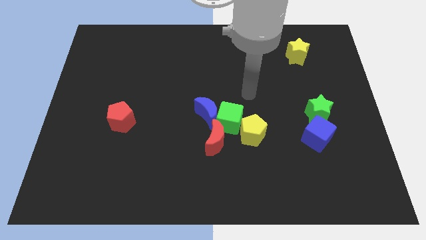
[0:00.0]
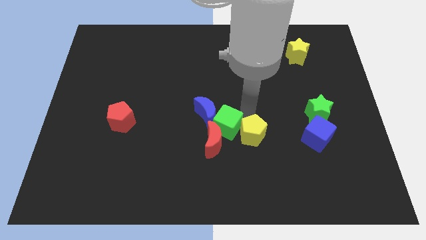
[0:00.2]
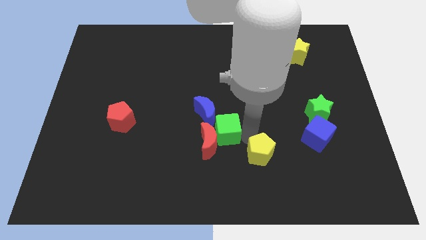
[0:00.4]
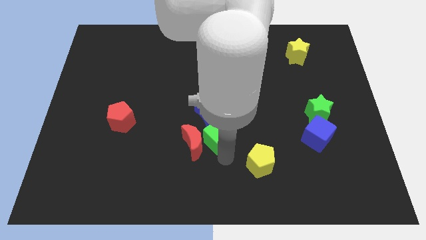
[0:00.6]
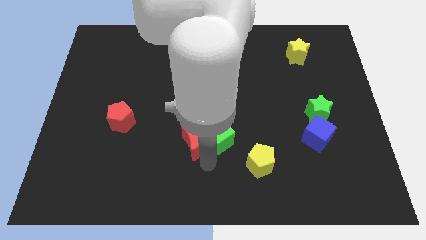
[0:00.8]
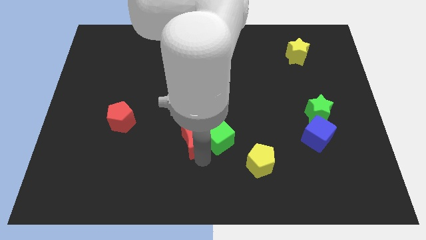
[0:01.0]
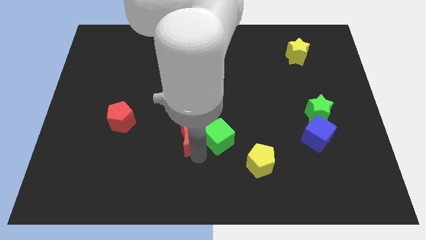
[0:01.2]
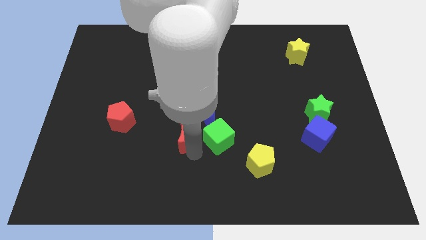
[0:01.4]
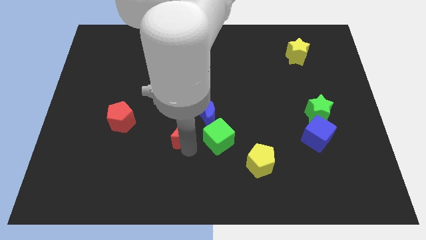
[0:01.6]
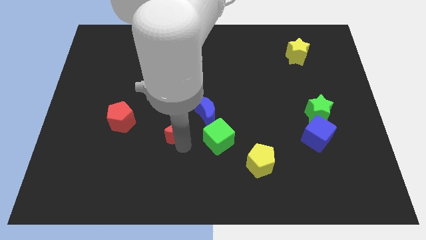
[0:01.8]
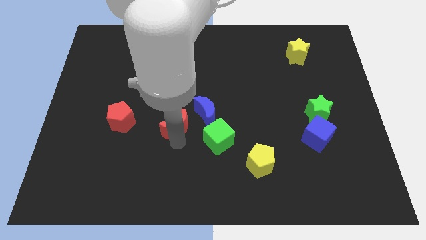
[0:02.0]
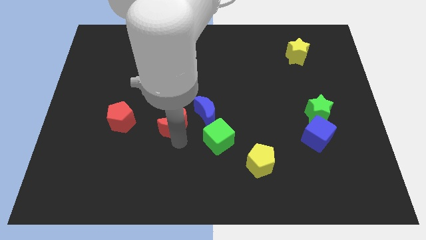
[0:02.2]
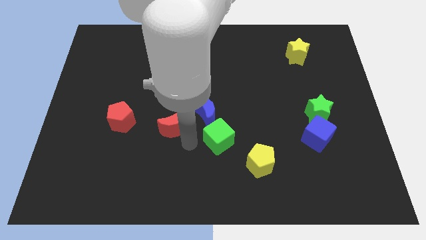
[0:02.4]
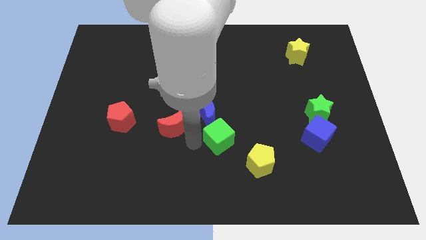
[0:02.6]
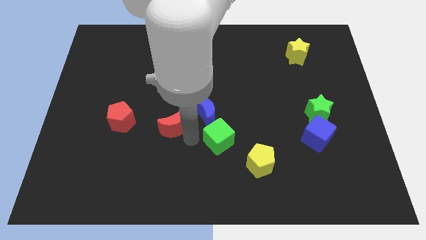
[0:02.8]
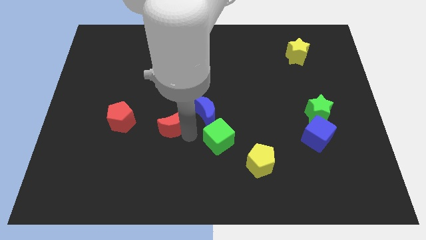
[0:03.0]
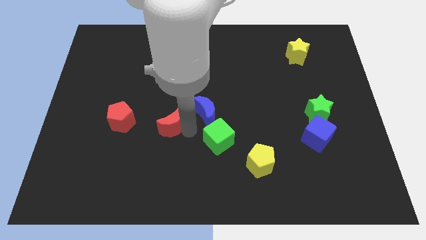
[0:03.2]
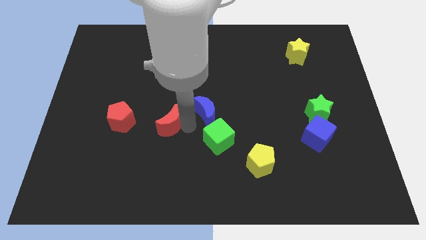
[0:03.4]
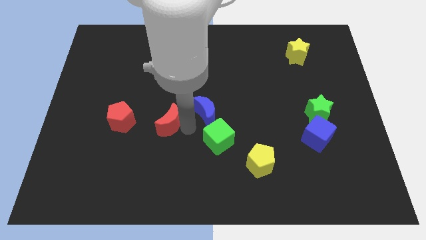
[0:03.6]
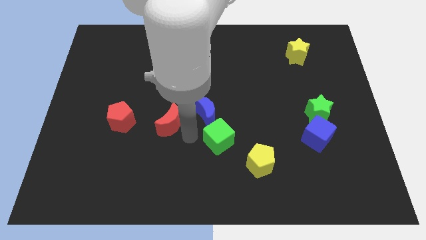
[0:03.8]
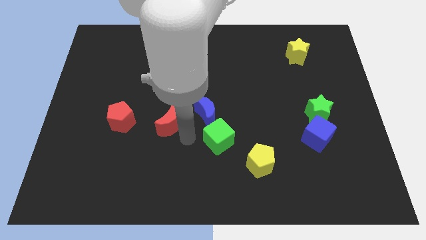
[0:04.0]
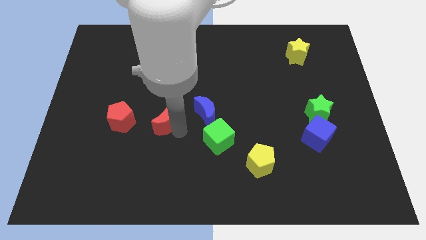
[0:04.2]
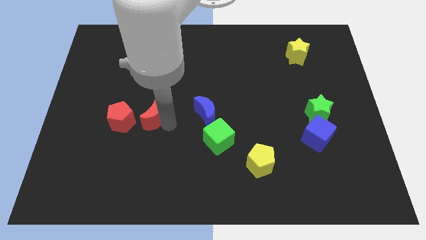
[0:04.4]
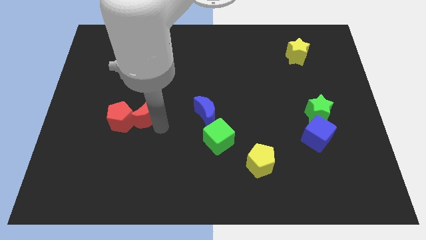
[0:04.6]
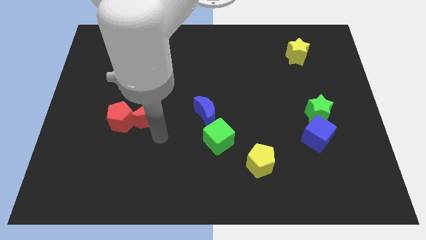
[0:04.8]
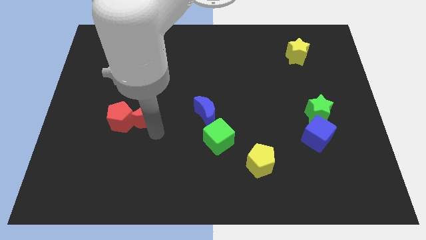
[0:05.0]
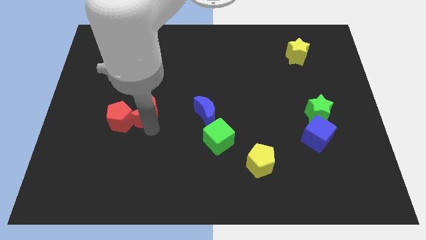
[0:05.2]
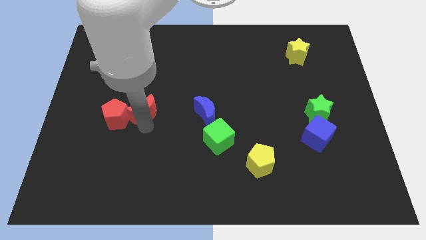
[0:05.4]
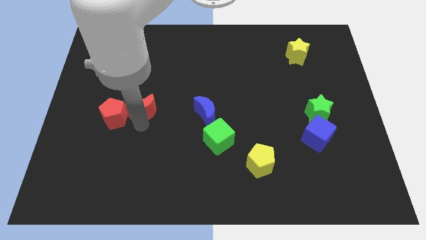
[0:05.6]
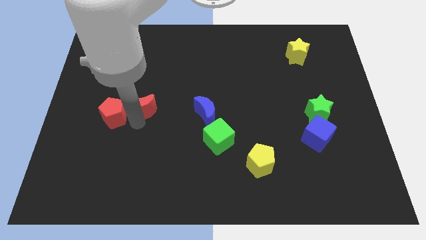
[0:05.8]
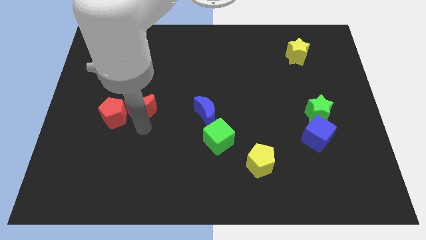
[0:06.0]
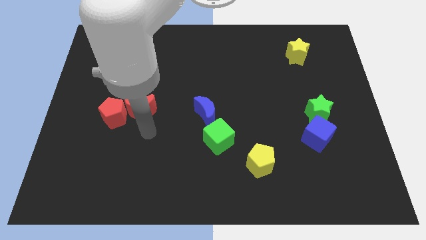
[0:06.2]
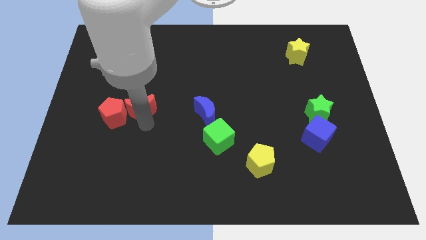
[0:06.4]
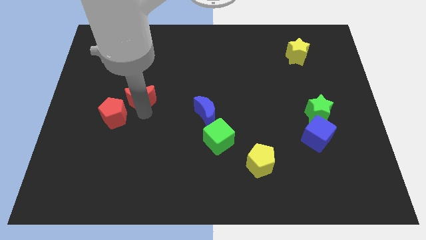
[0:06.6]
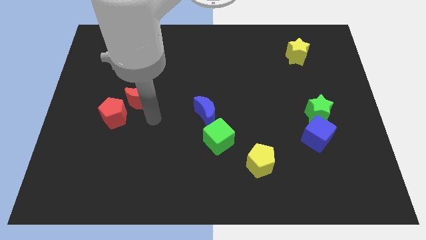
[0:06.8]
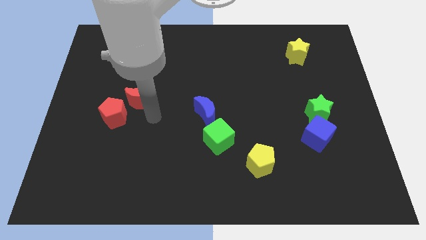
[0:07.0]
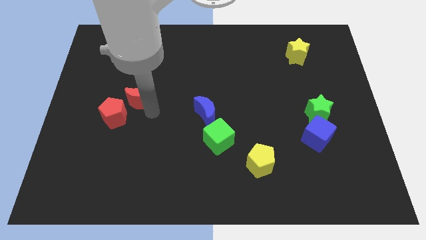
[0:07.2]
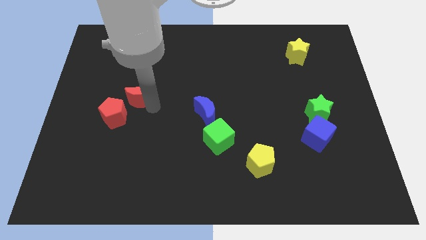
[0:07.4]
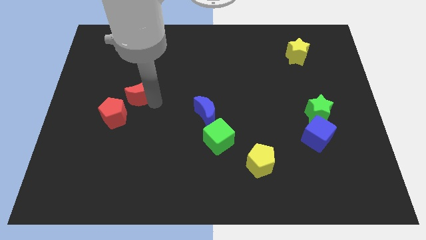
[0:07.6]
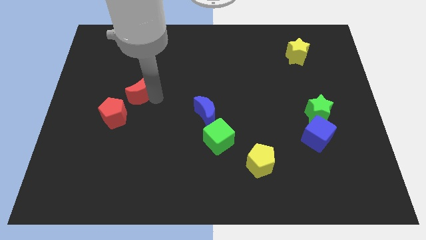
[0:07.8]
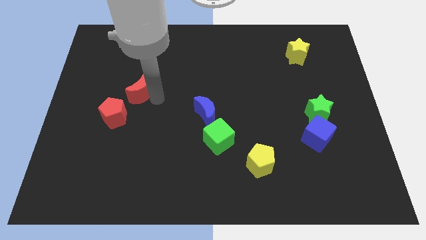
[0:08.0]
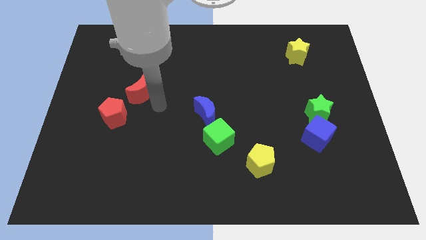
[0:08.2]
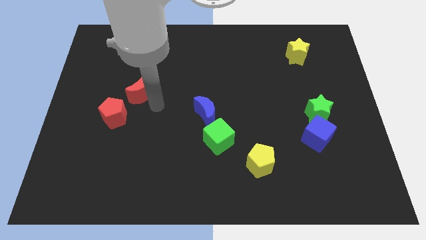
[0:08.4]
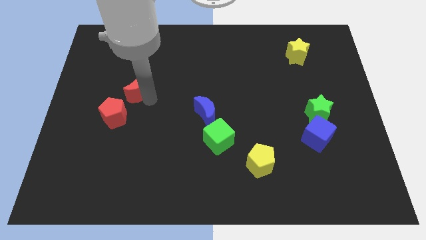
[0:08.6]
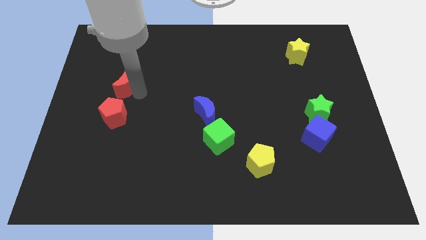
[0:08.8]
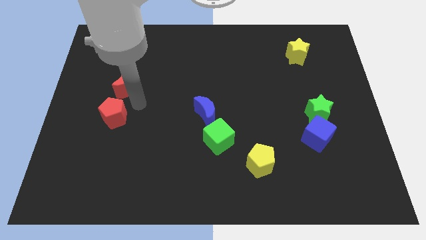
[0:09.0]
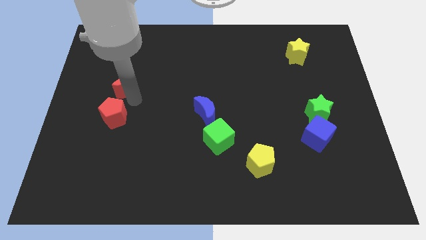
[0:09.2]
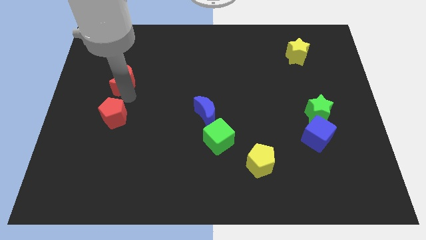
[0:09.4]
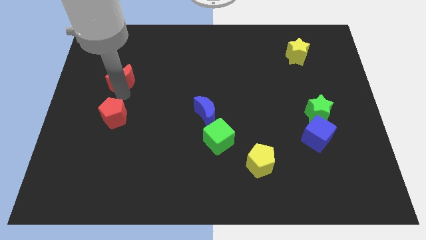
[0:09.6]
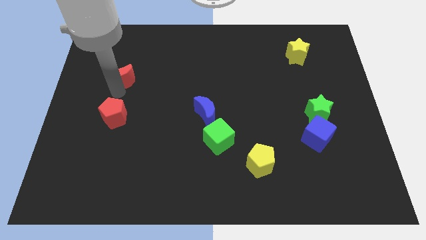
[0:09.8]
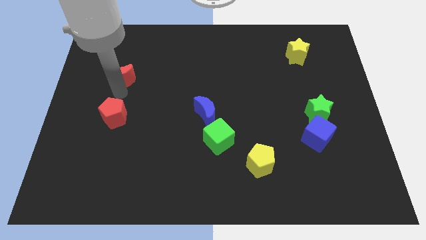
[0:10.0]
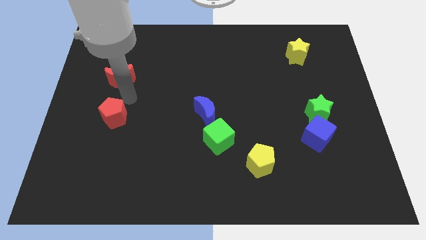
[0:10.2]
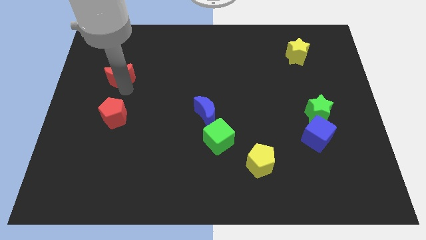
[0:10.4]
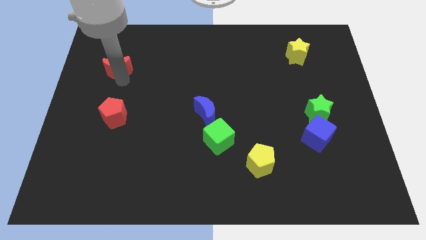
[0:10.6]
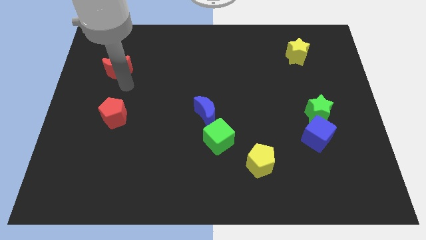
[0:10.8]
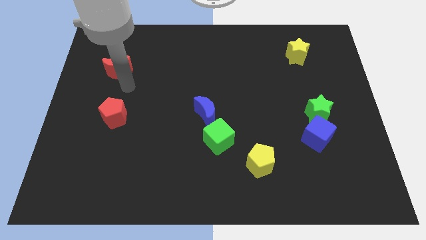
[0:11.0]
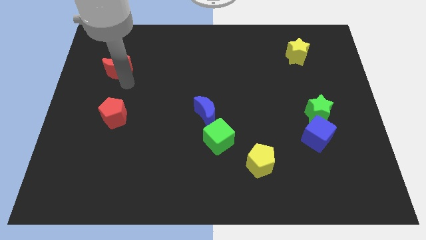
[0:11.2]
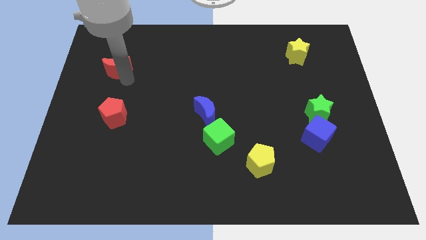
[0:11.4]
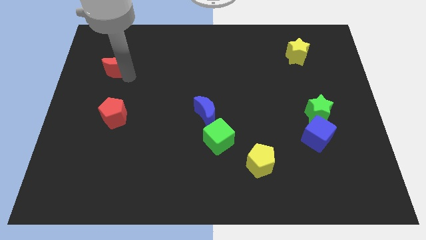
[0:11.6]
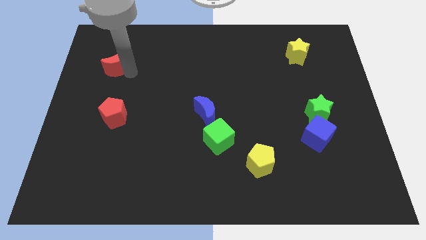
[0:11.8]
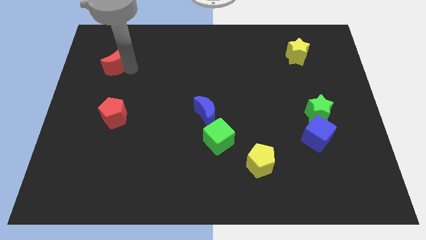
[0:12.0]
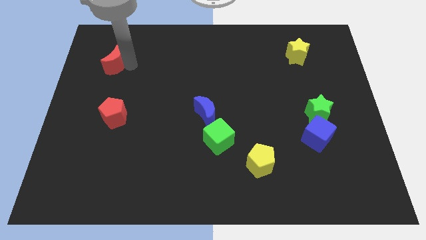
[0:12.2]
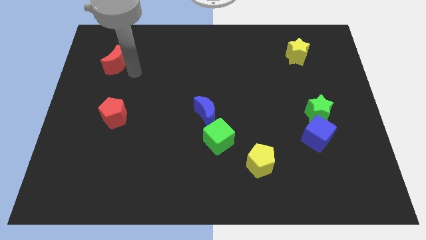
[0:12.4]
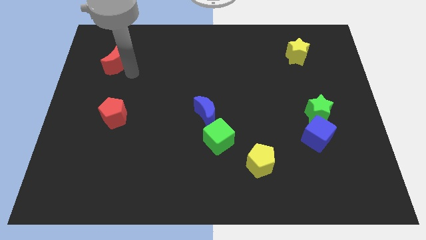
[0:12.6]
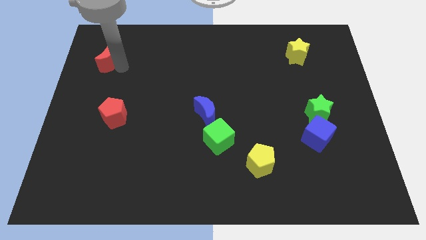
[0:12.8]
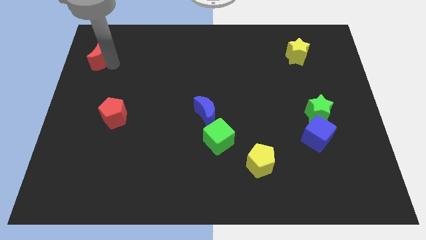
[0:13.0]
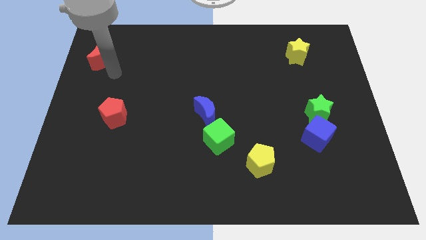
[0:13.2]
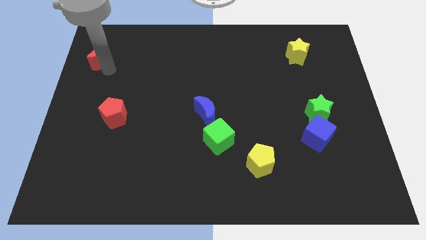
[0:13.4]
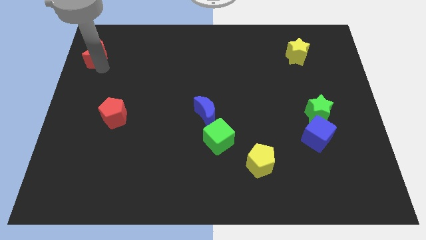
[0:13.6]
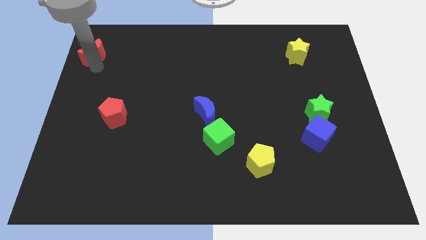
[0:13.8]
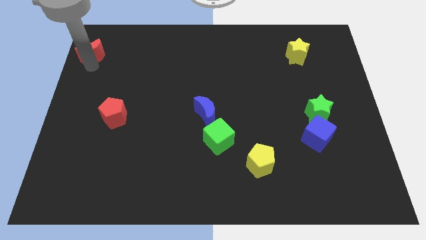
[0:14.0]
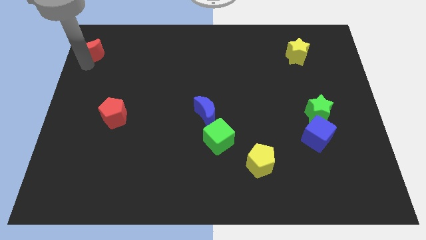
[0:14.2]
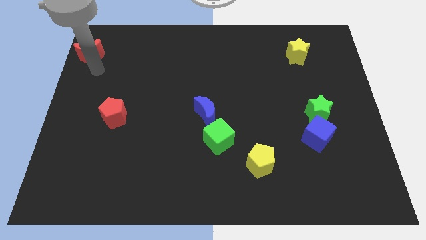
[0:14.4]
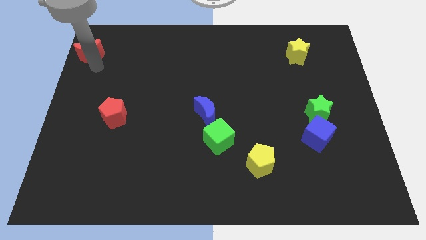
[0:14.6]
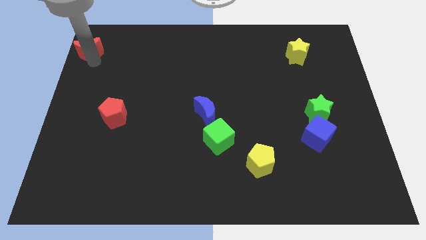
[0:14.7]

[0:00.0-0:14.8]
put the red moon to the upper left corner
